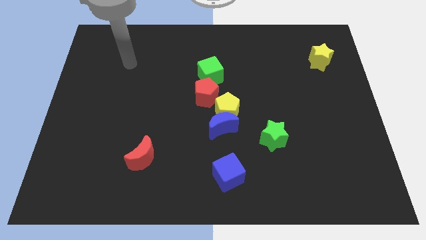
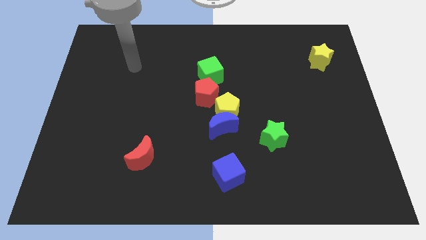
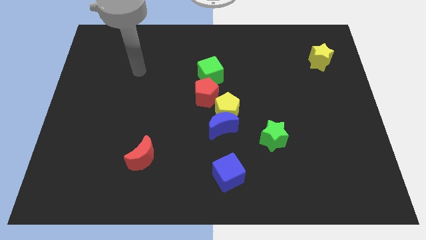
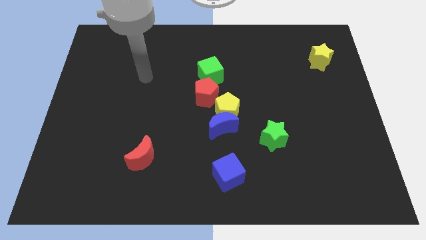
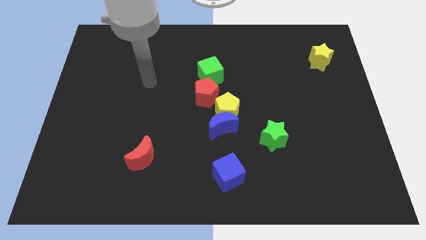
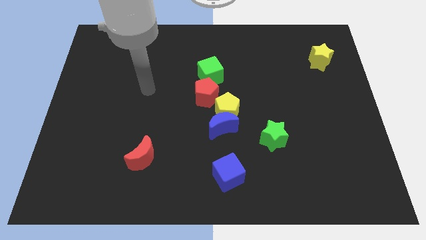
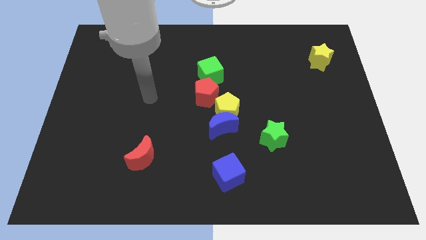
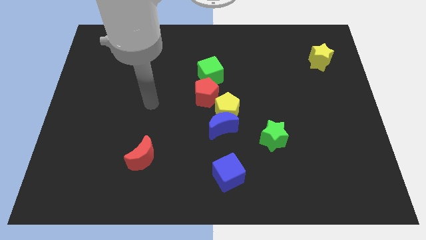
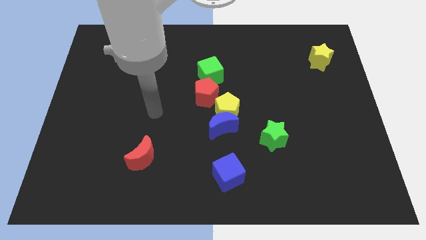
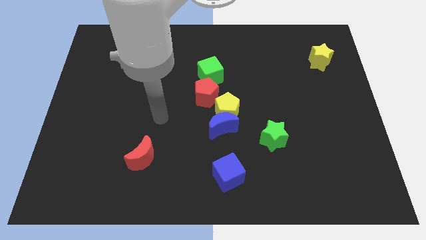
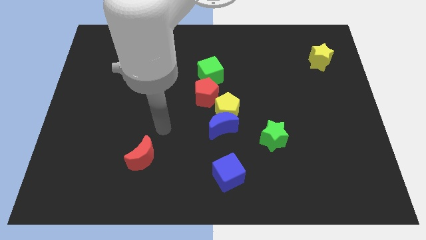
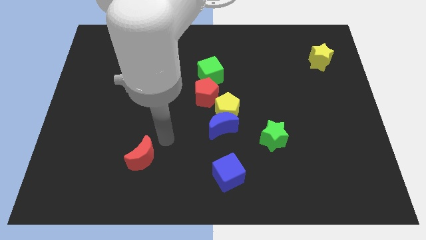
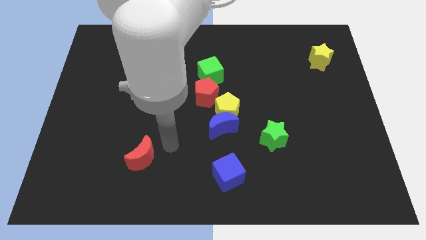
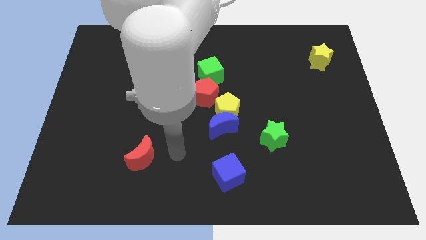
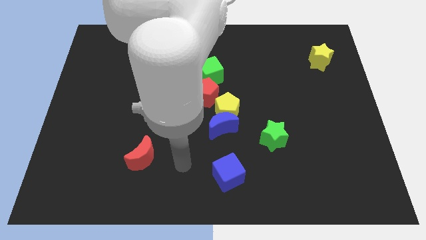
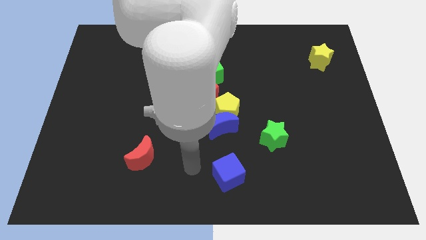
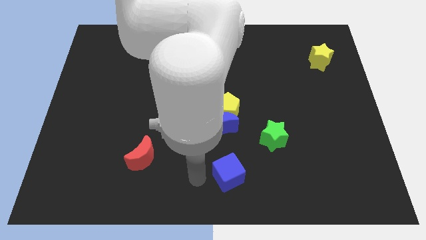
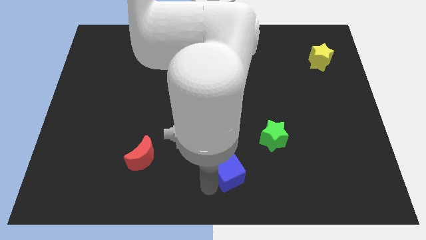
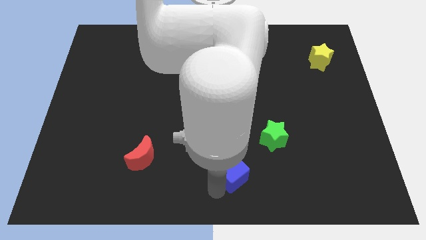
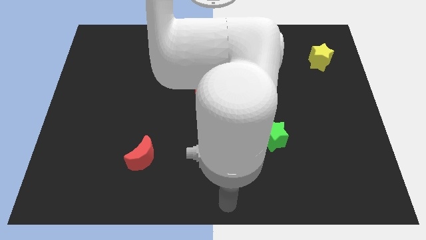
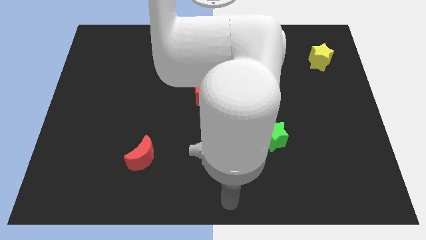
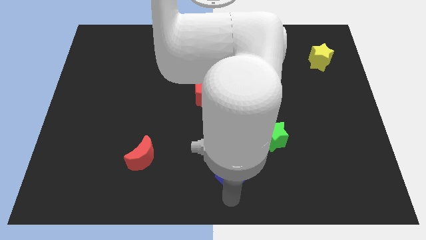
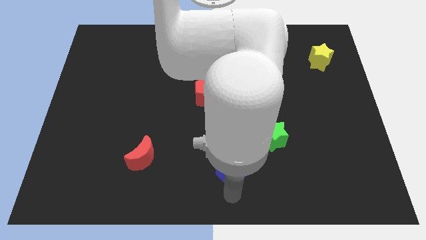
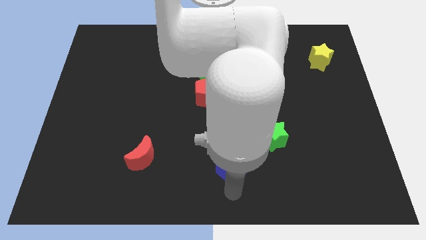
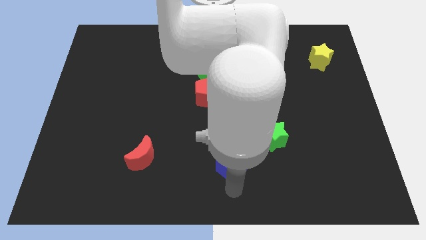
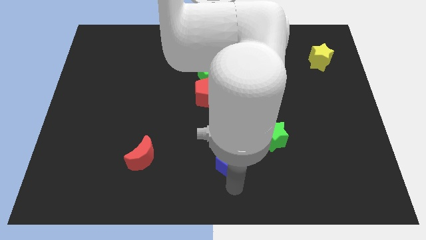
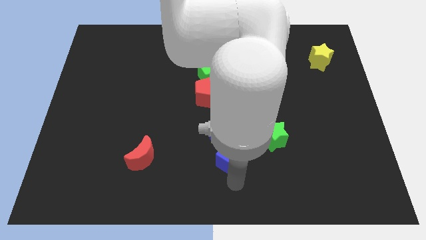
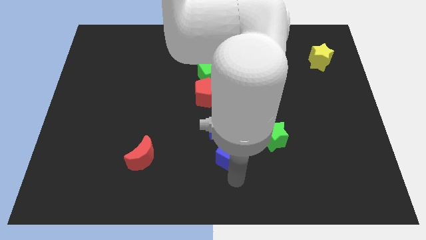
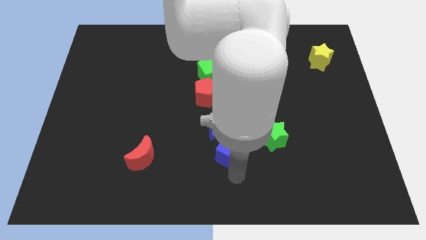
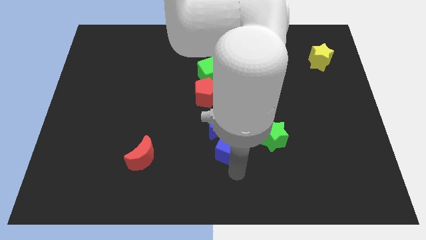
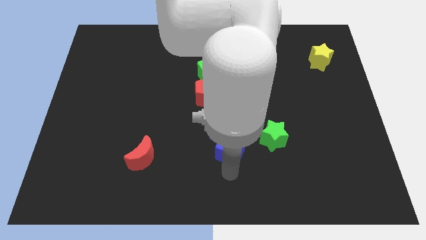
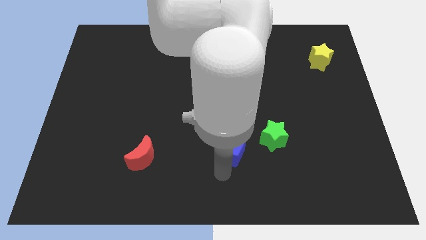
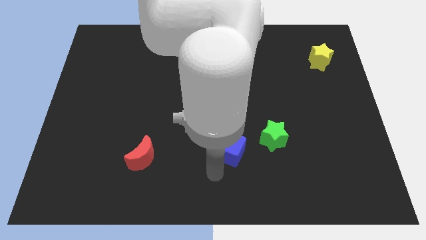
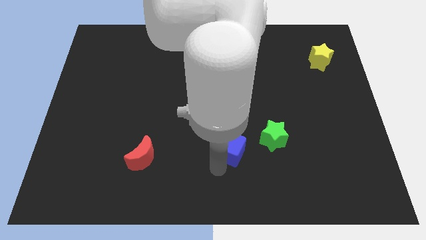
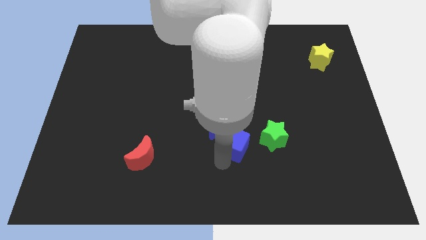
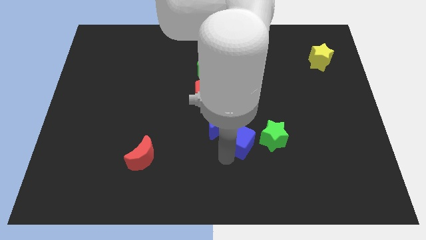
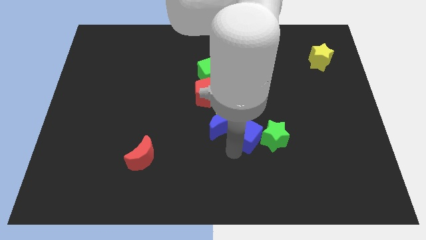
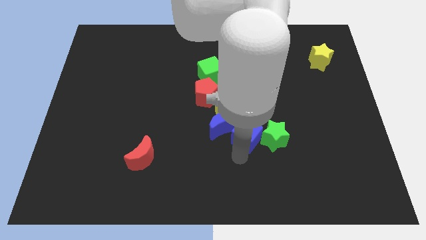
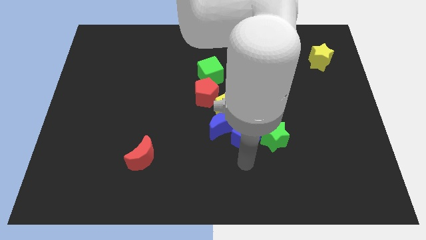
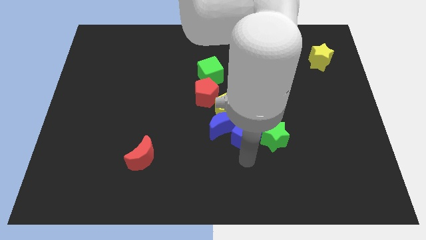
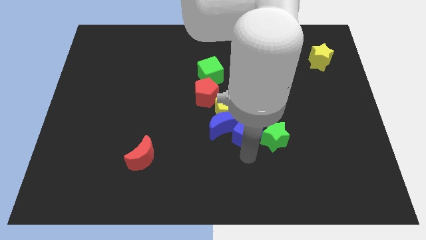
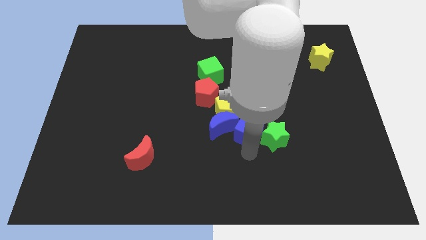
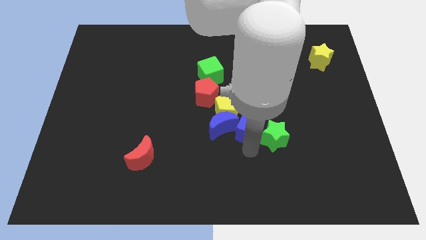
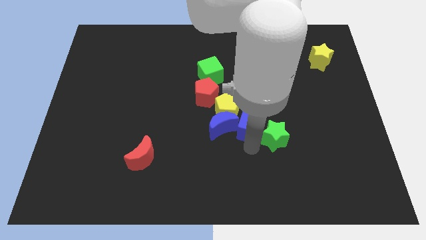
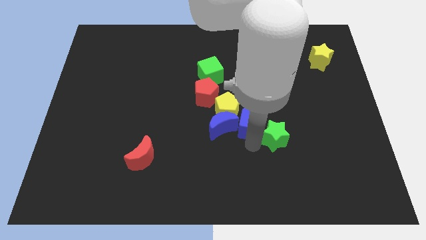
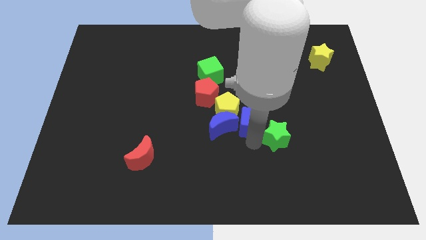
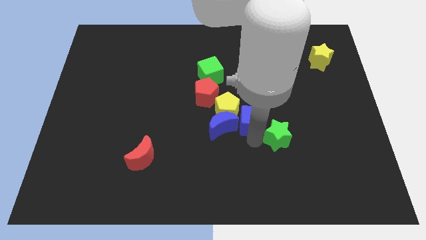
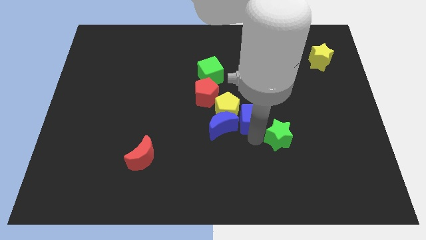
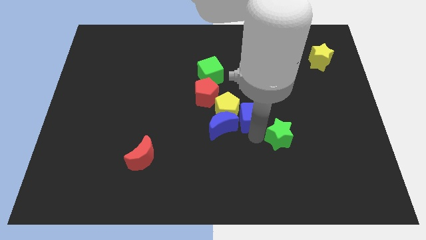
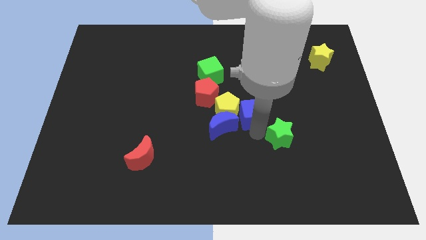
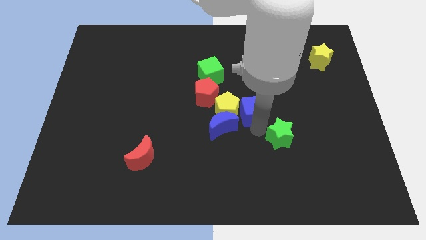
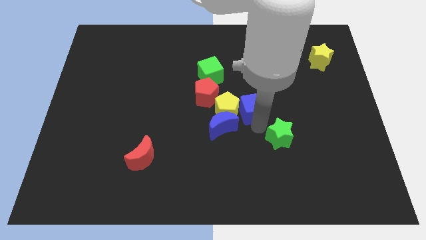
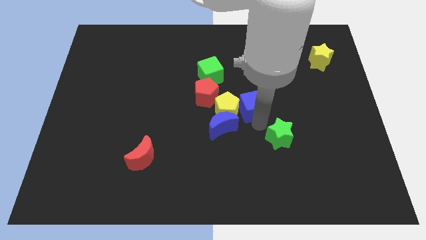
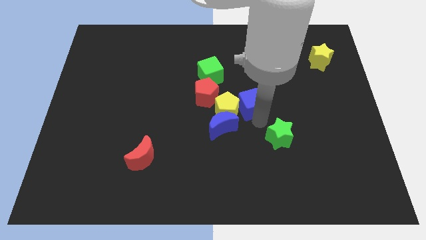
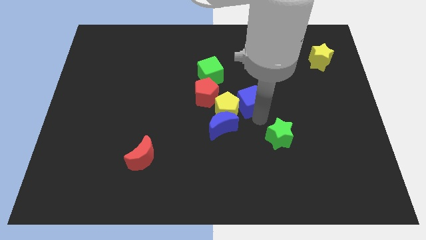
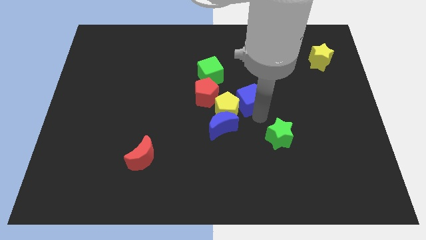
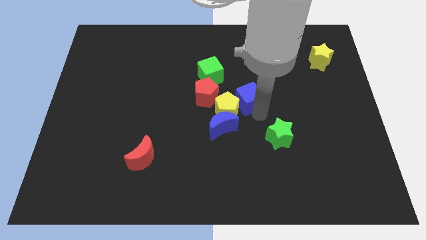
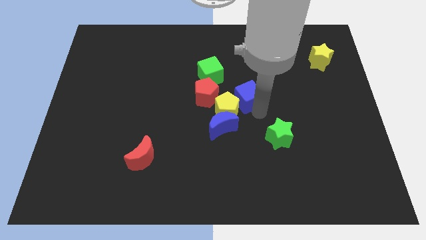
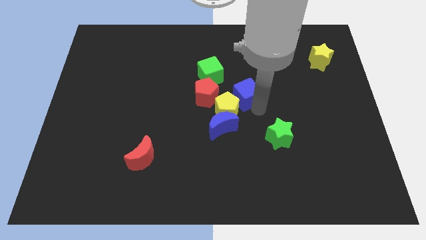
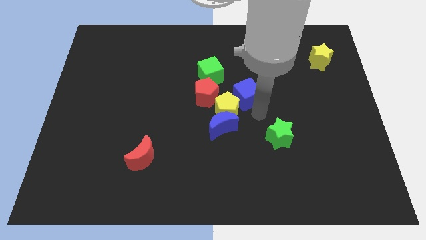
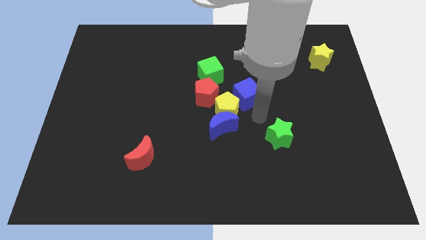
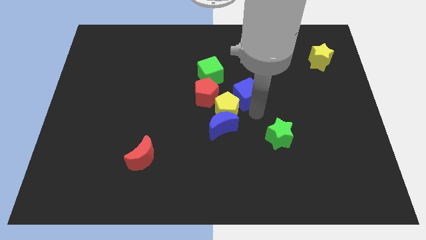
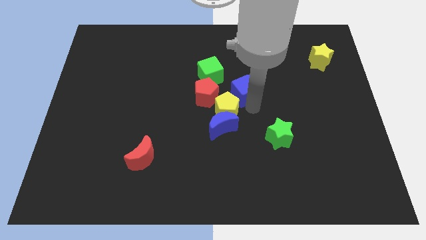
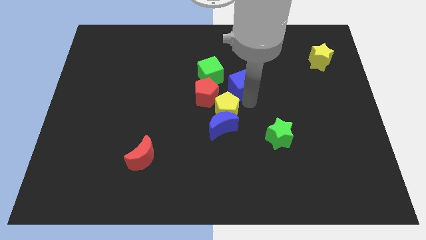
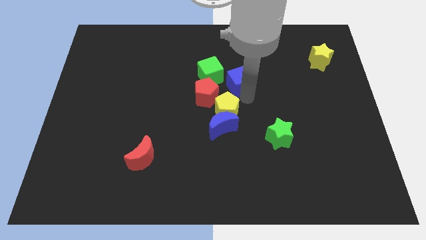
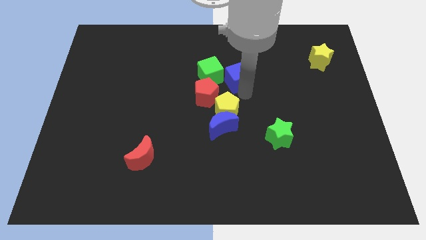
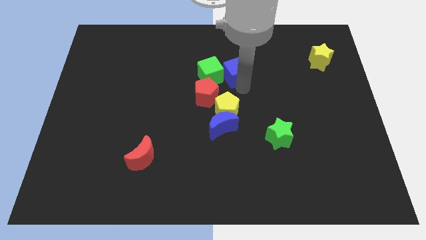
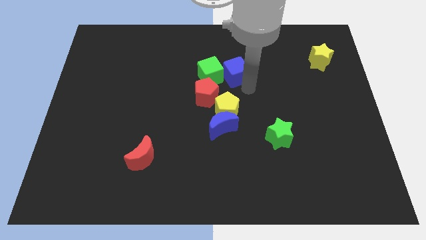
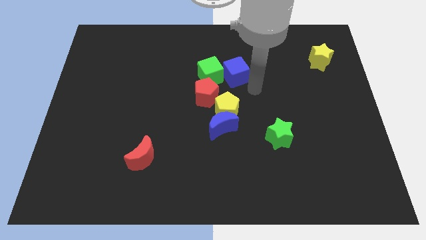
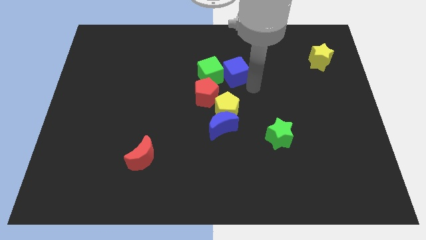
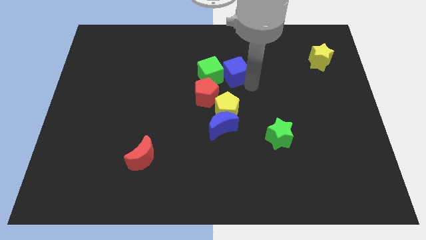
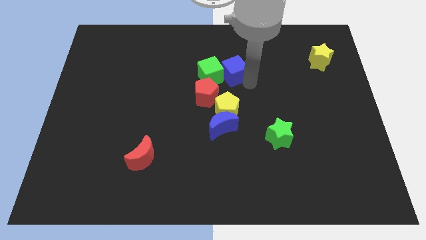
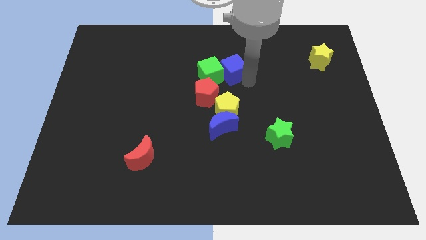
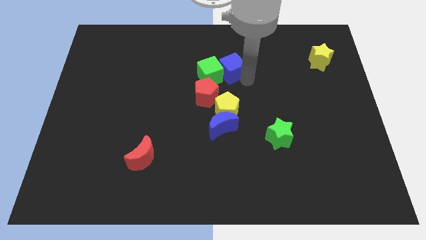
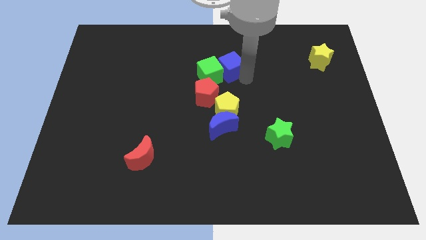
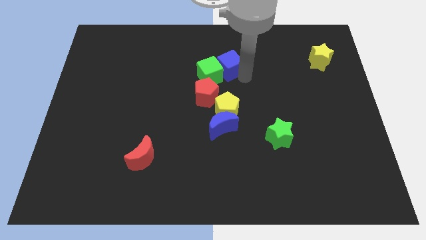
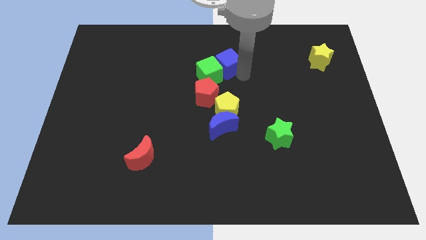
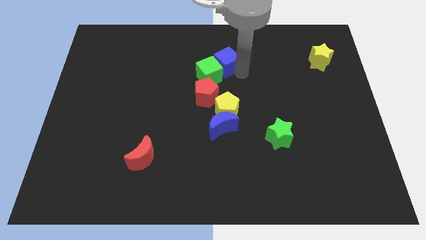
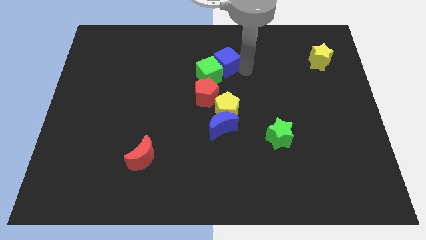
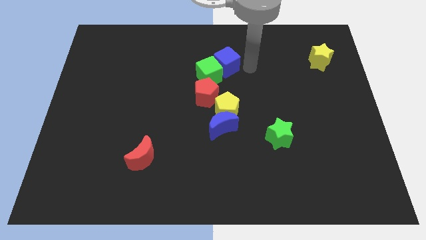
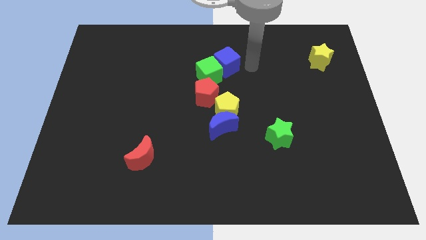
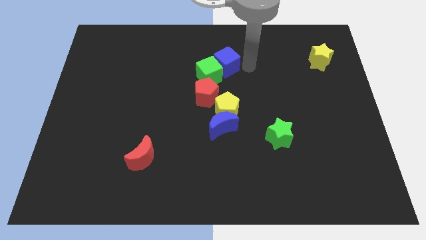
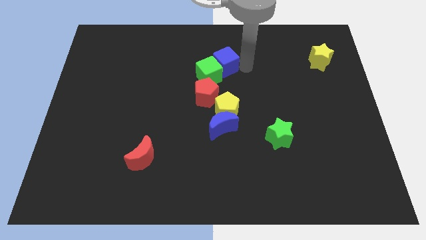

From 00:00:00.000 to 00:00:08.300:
slide the blue cube to the top of the red pentagon
